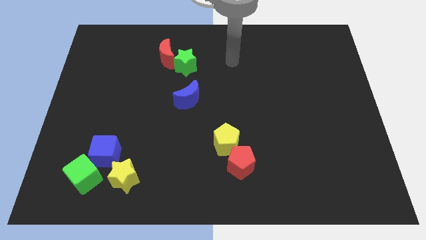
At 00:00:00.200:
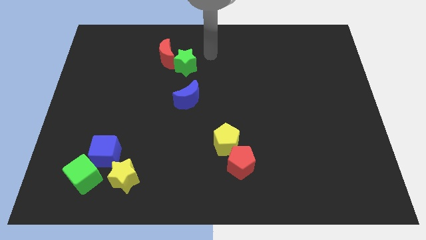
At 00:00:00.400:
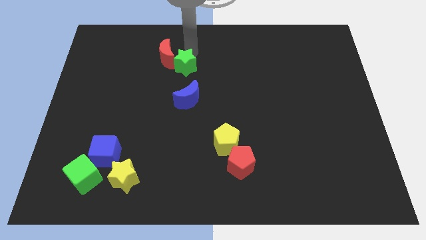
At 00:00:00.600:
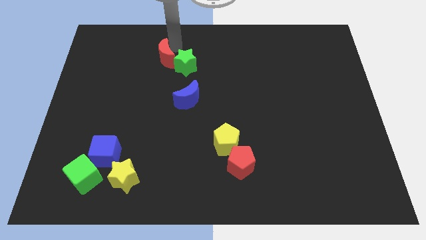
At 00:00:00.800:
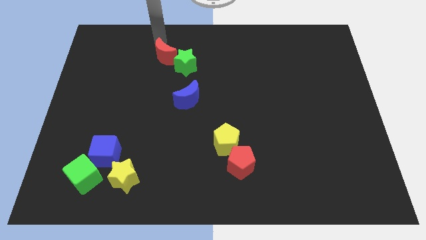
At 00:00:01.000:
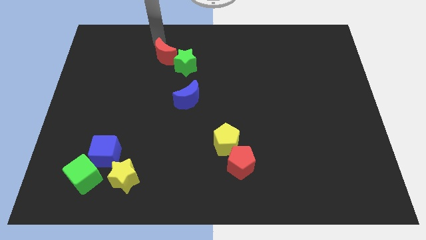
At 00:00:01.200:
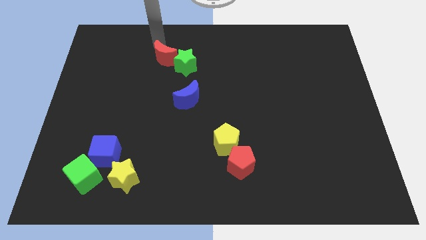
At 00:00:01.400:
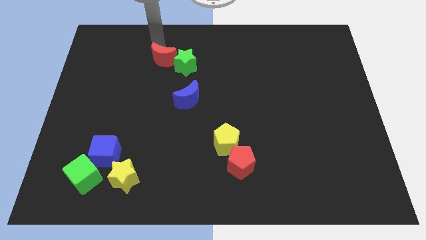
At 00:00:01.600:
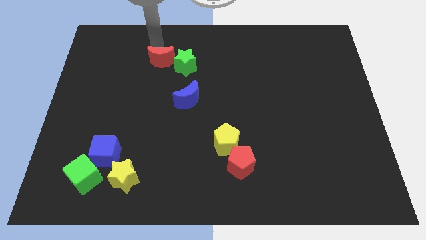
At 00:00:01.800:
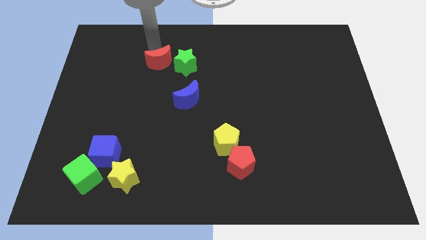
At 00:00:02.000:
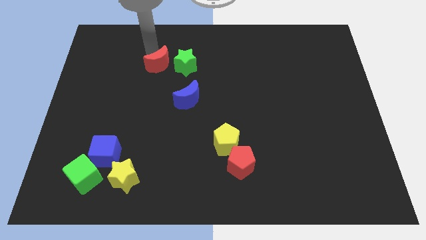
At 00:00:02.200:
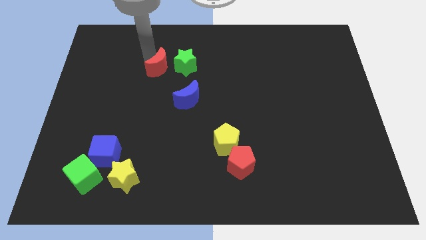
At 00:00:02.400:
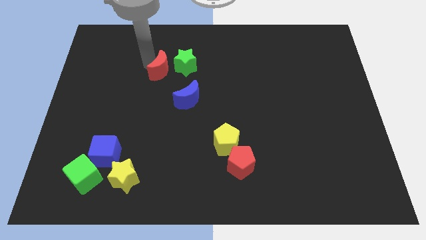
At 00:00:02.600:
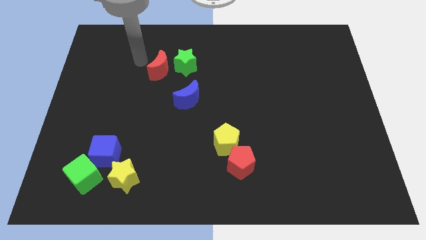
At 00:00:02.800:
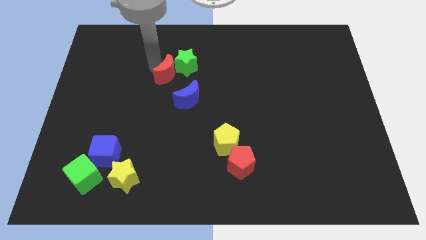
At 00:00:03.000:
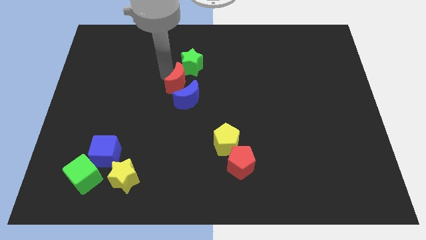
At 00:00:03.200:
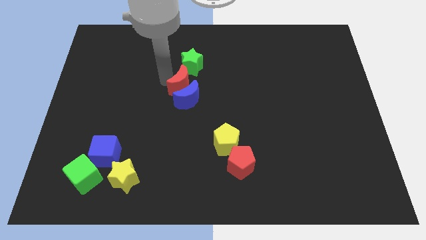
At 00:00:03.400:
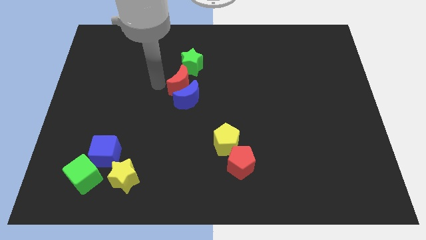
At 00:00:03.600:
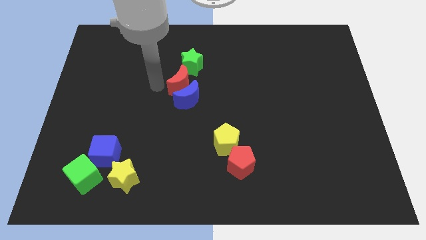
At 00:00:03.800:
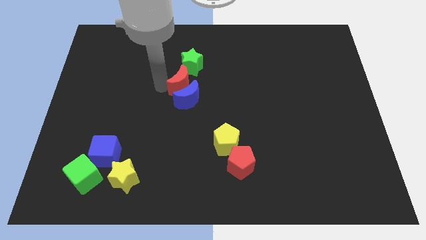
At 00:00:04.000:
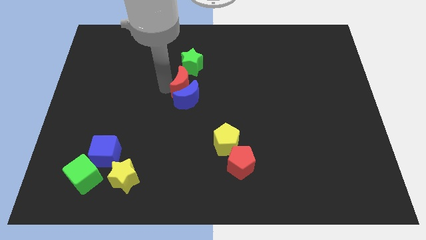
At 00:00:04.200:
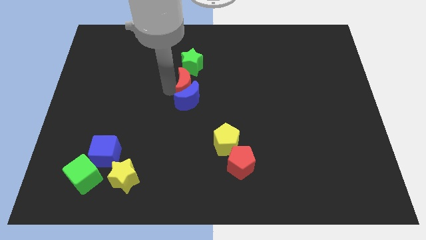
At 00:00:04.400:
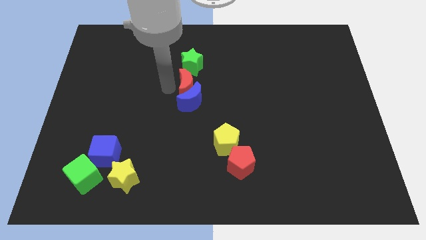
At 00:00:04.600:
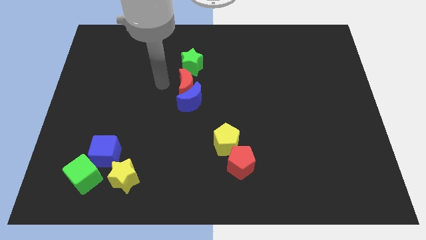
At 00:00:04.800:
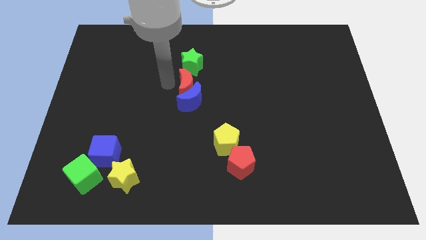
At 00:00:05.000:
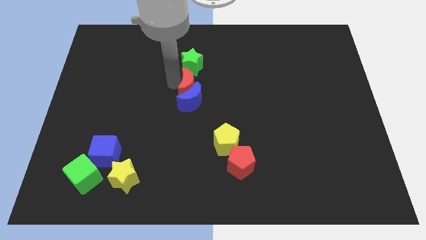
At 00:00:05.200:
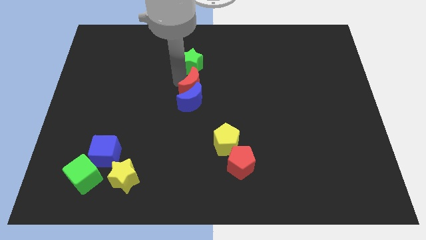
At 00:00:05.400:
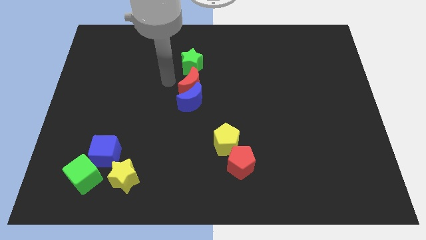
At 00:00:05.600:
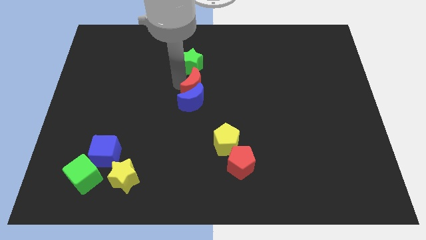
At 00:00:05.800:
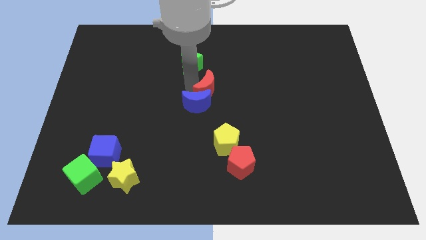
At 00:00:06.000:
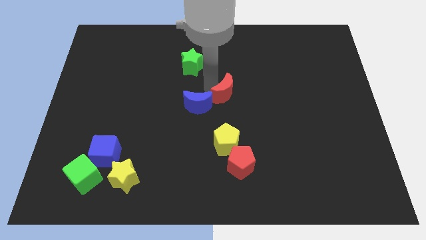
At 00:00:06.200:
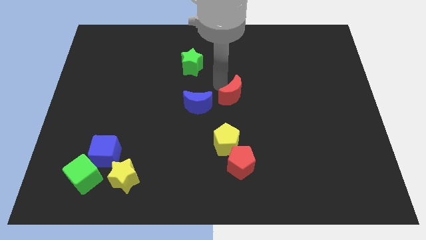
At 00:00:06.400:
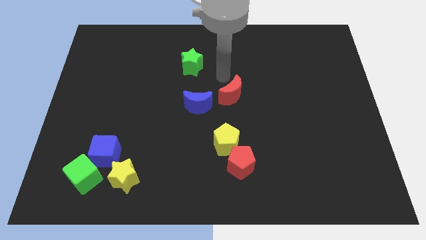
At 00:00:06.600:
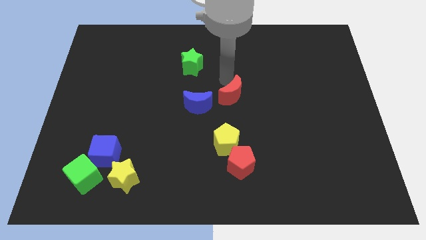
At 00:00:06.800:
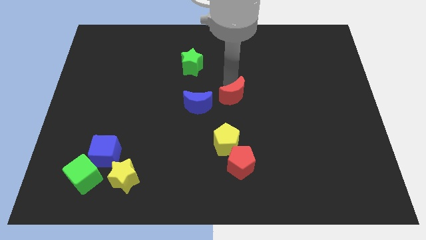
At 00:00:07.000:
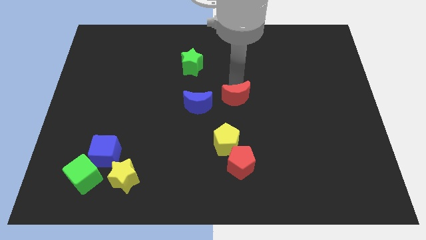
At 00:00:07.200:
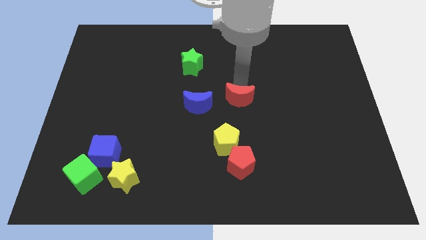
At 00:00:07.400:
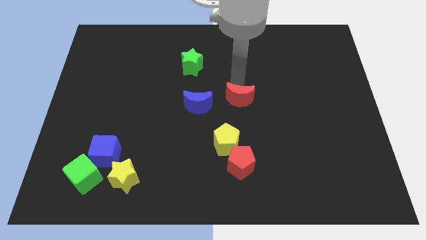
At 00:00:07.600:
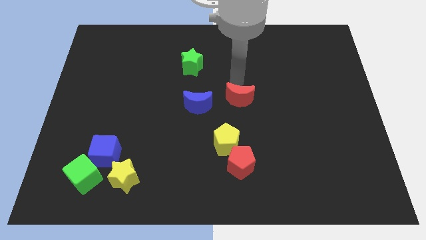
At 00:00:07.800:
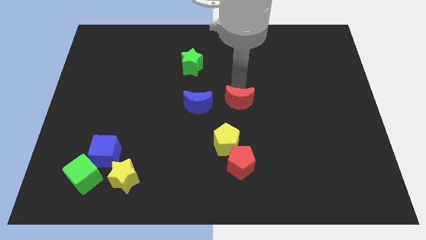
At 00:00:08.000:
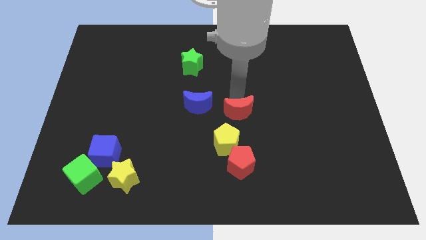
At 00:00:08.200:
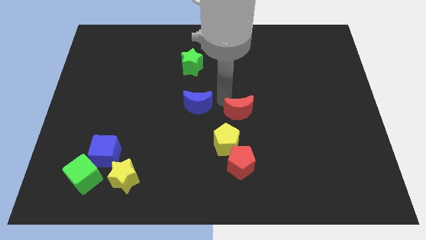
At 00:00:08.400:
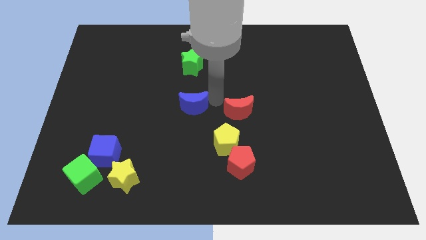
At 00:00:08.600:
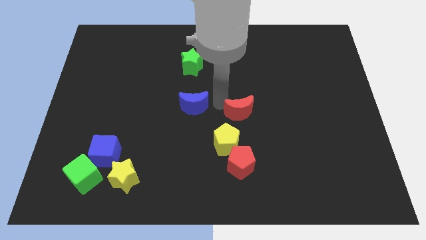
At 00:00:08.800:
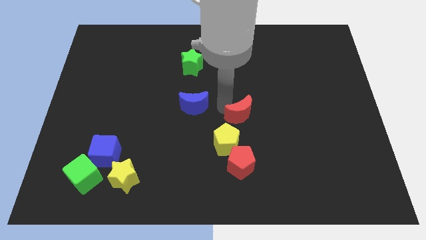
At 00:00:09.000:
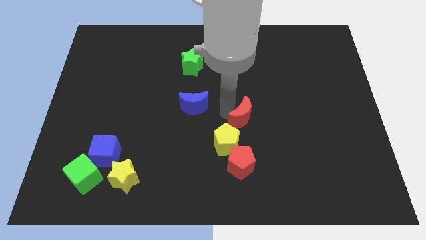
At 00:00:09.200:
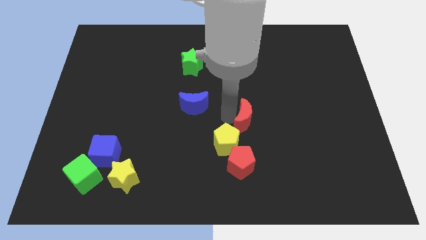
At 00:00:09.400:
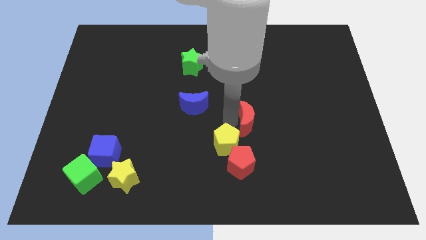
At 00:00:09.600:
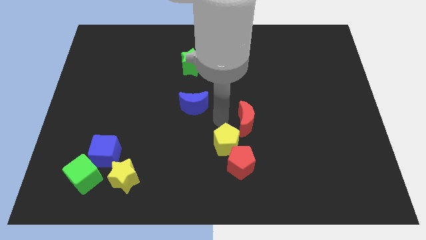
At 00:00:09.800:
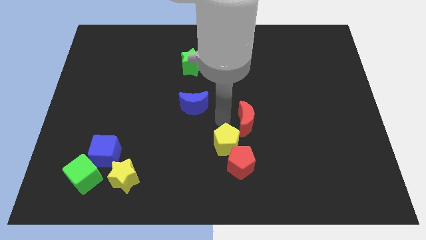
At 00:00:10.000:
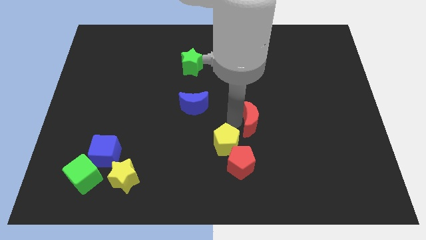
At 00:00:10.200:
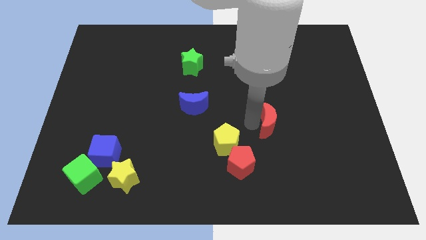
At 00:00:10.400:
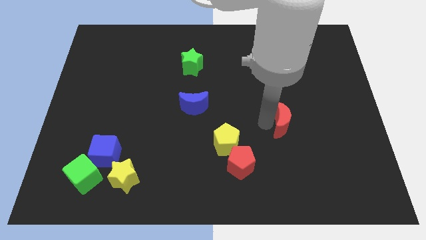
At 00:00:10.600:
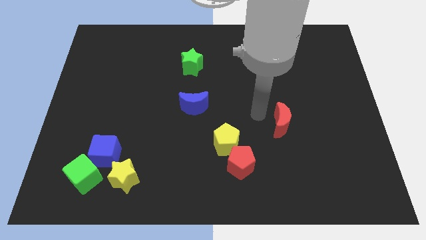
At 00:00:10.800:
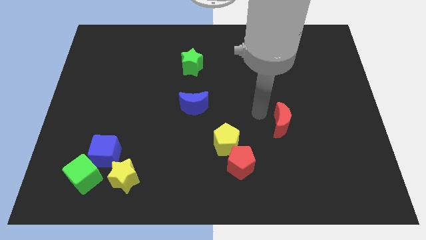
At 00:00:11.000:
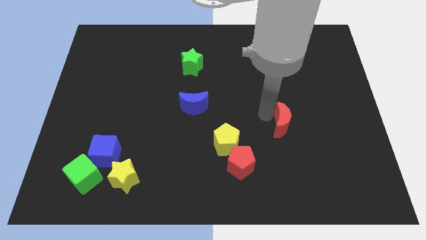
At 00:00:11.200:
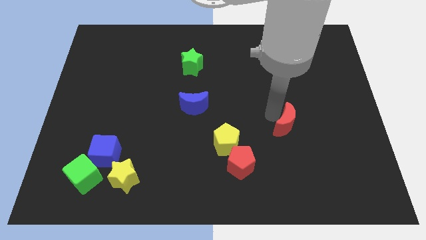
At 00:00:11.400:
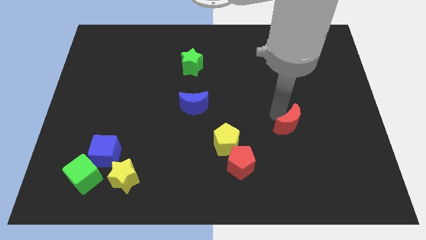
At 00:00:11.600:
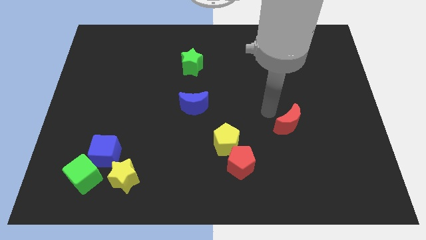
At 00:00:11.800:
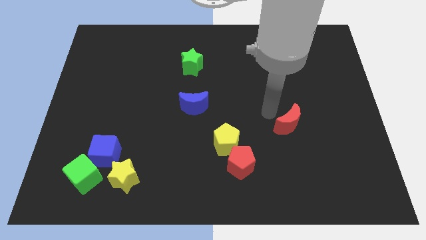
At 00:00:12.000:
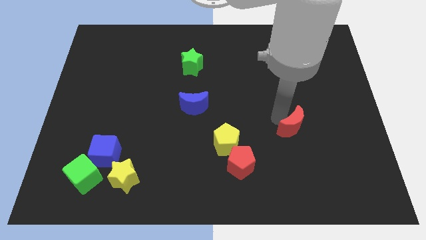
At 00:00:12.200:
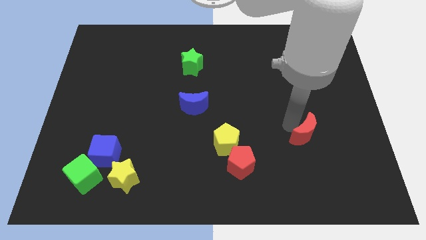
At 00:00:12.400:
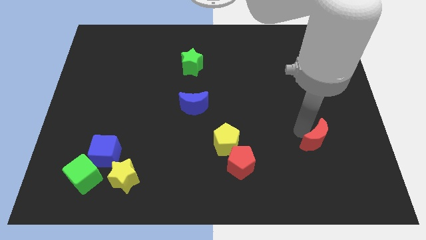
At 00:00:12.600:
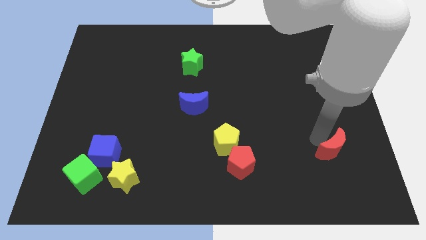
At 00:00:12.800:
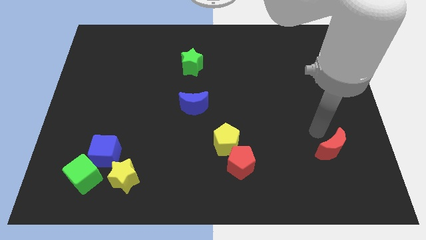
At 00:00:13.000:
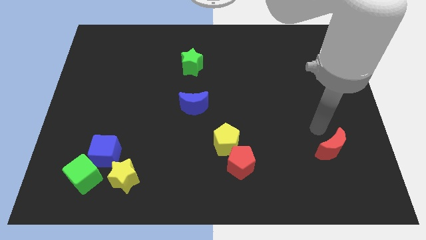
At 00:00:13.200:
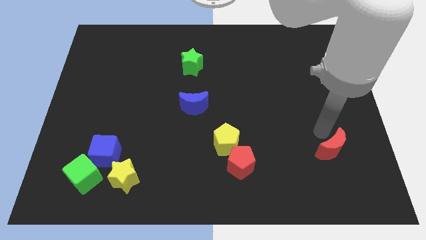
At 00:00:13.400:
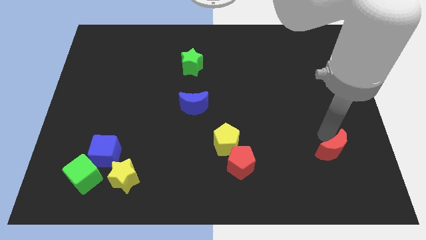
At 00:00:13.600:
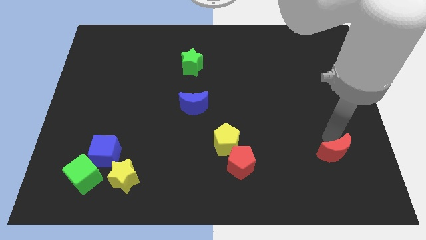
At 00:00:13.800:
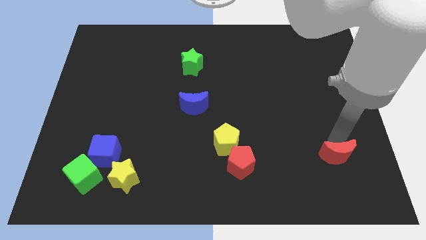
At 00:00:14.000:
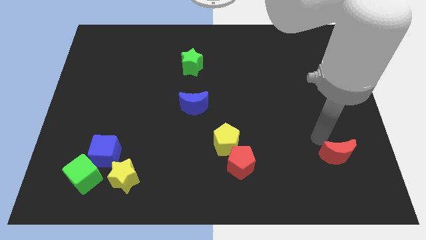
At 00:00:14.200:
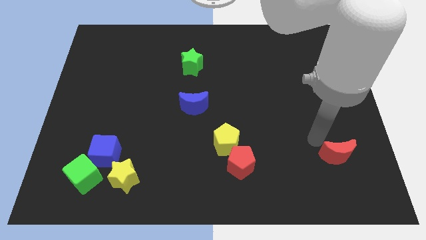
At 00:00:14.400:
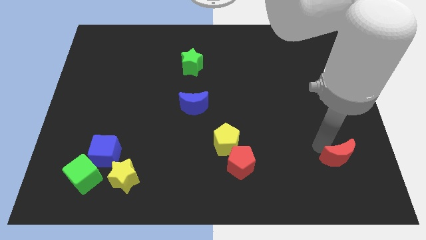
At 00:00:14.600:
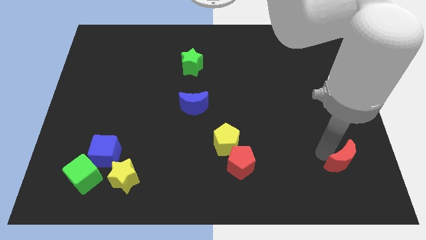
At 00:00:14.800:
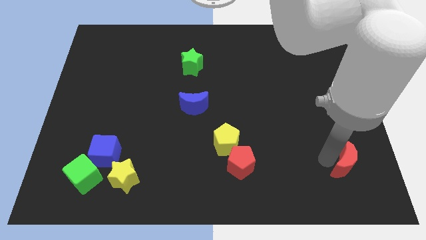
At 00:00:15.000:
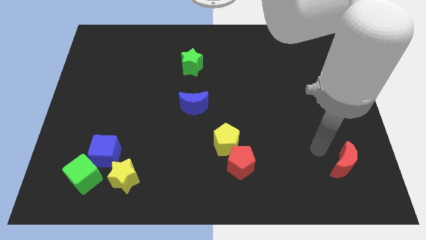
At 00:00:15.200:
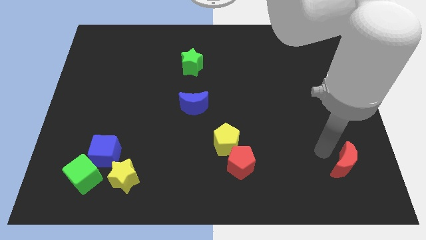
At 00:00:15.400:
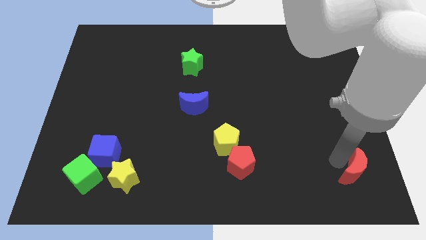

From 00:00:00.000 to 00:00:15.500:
move the red moon to the bottom right

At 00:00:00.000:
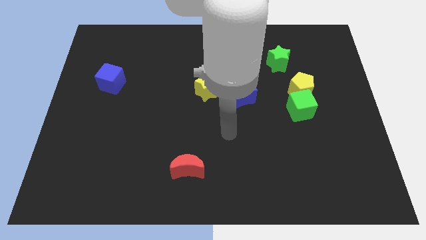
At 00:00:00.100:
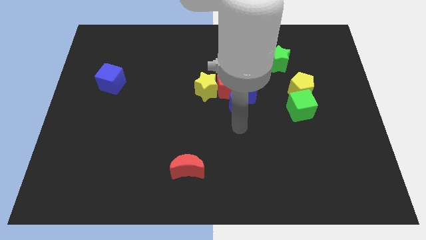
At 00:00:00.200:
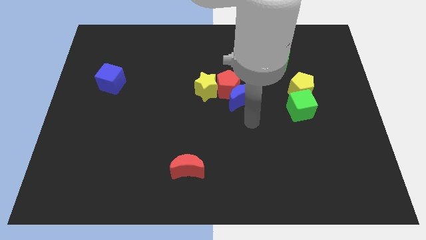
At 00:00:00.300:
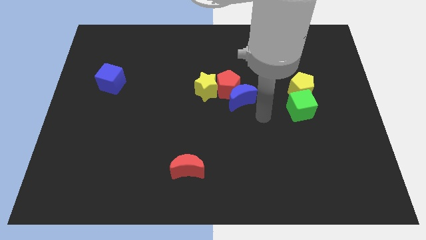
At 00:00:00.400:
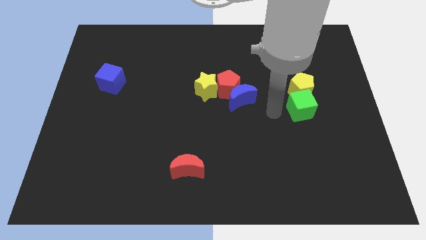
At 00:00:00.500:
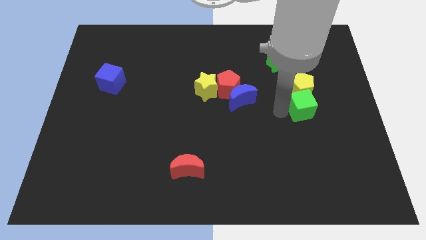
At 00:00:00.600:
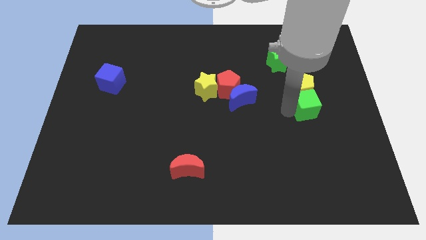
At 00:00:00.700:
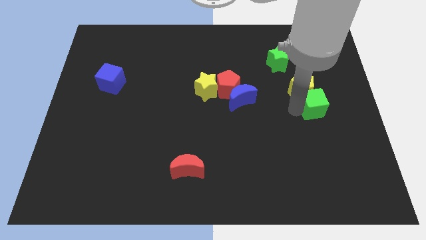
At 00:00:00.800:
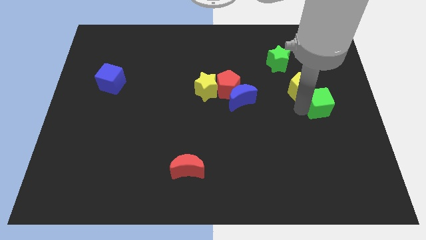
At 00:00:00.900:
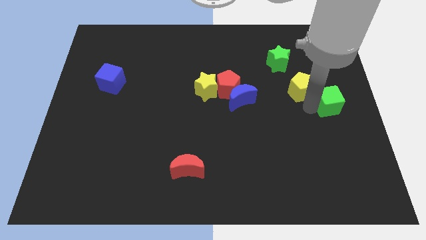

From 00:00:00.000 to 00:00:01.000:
push the green cube to the right side
